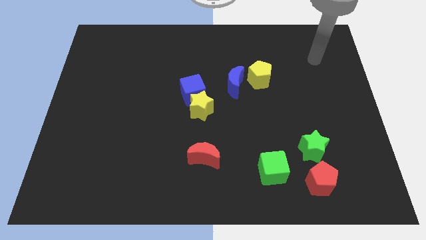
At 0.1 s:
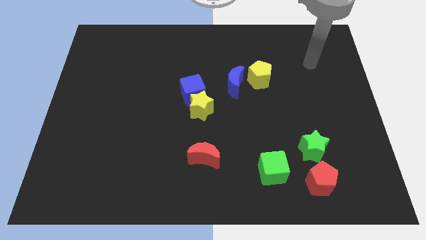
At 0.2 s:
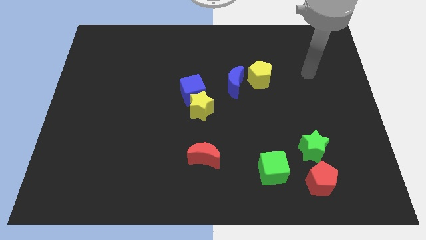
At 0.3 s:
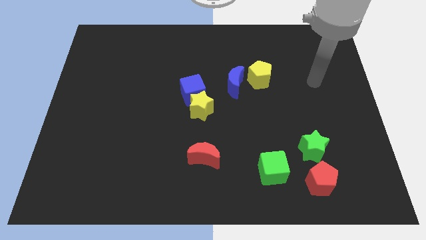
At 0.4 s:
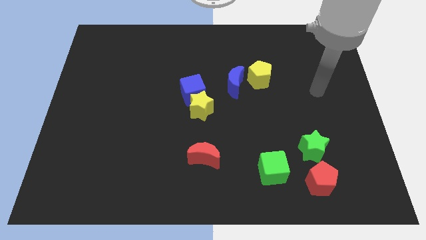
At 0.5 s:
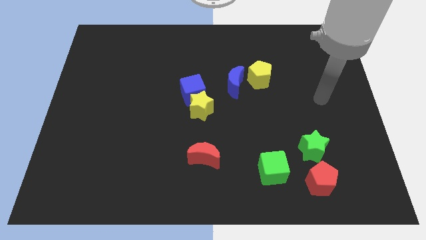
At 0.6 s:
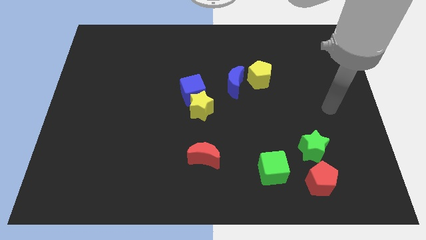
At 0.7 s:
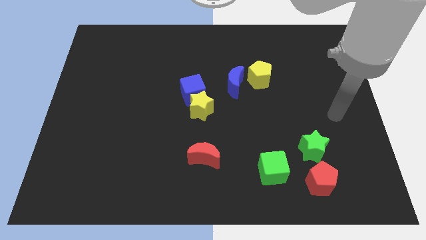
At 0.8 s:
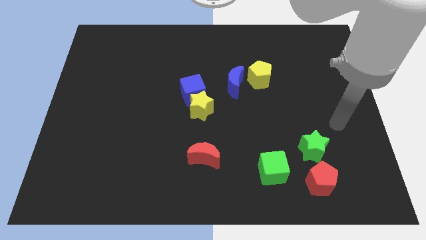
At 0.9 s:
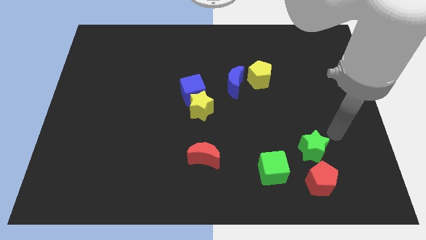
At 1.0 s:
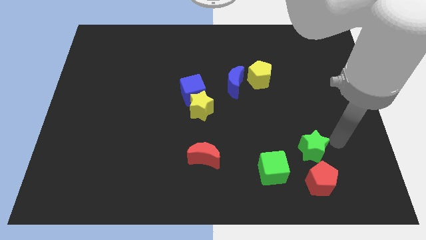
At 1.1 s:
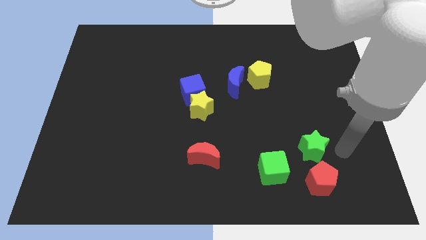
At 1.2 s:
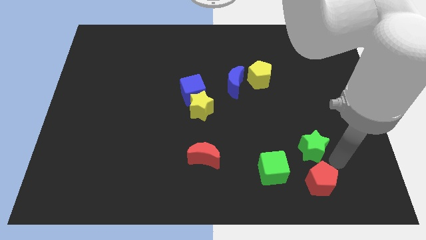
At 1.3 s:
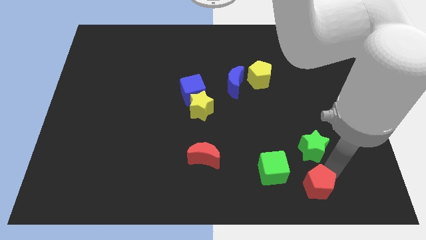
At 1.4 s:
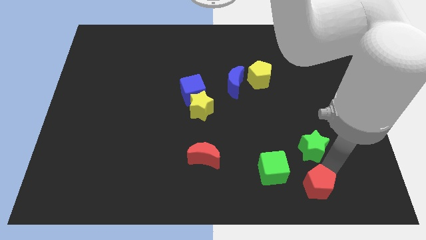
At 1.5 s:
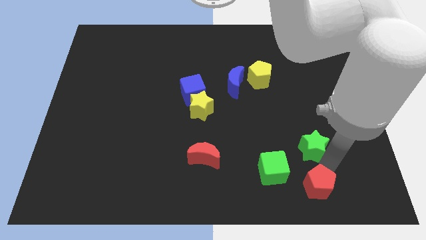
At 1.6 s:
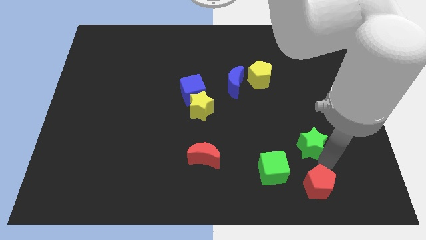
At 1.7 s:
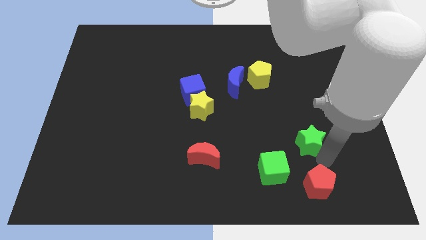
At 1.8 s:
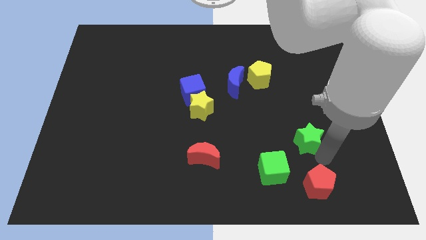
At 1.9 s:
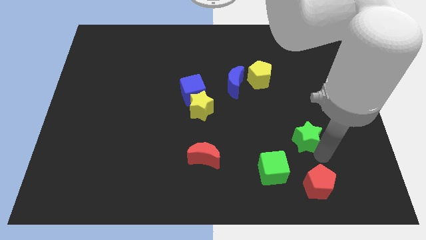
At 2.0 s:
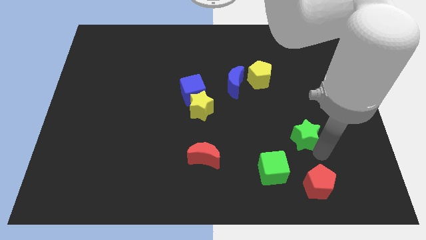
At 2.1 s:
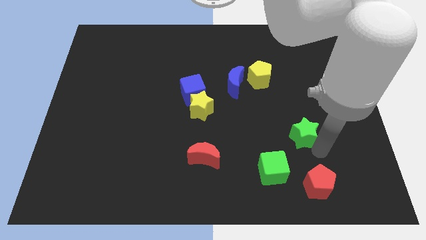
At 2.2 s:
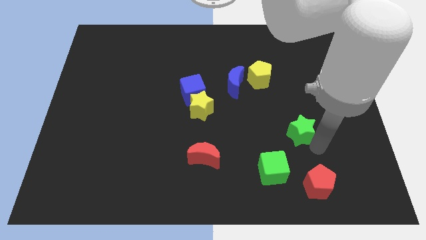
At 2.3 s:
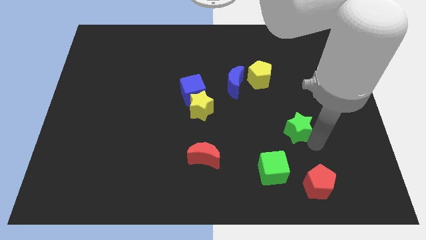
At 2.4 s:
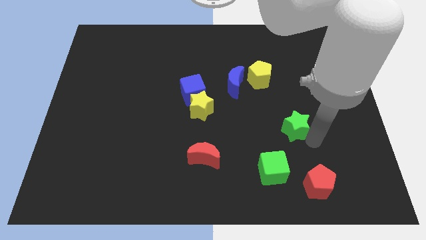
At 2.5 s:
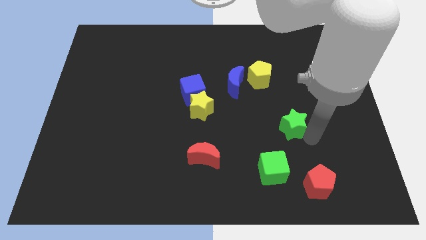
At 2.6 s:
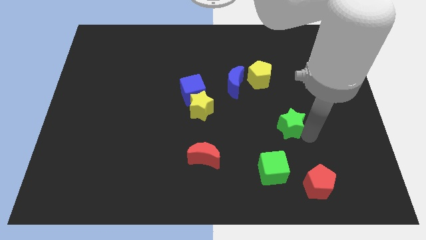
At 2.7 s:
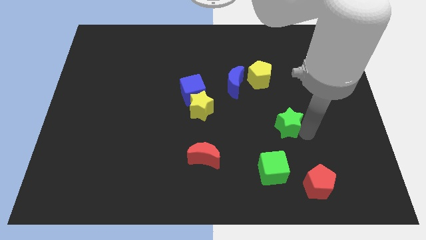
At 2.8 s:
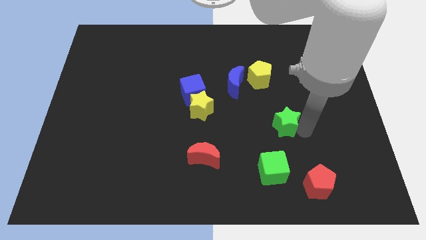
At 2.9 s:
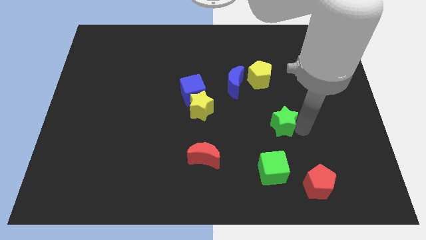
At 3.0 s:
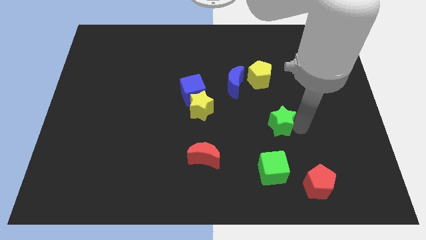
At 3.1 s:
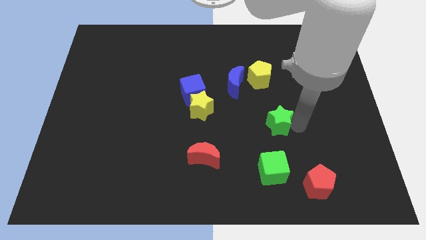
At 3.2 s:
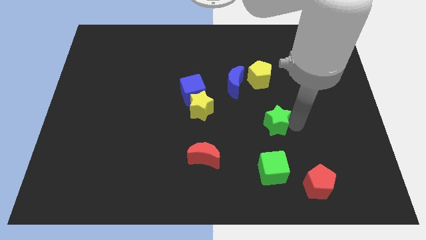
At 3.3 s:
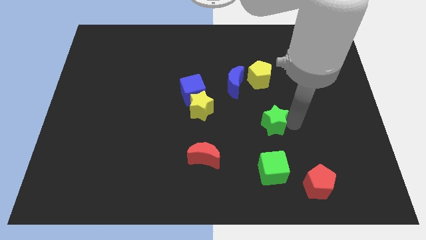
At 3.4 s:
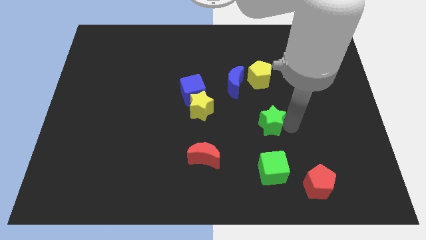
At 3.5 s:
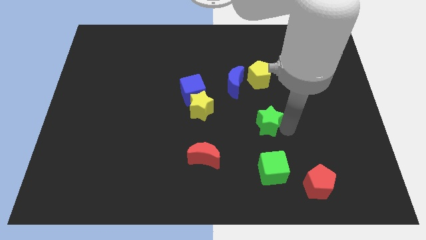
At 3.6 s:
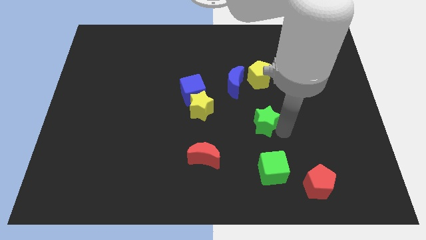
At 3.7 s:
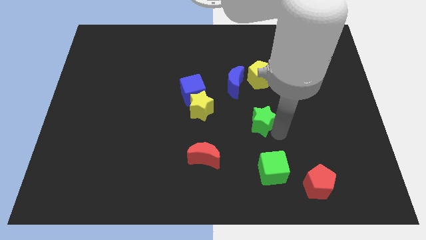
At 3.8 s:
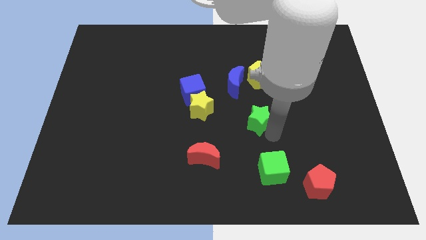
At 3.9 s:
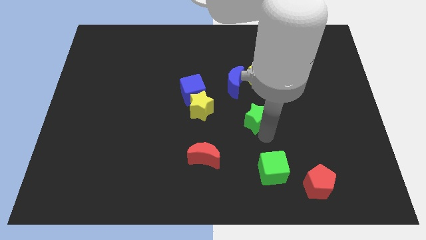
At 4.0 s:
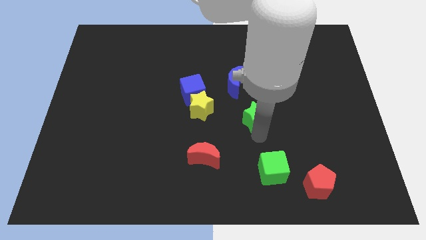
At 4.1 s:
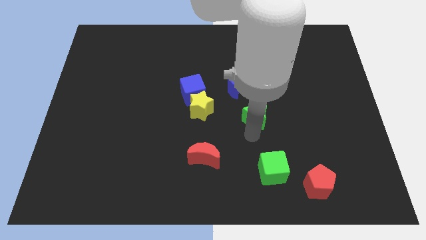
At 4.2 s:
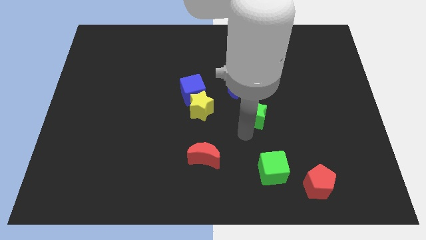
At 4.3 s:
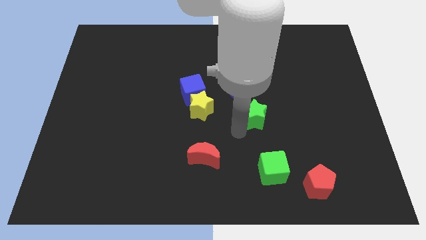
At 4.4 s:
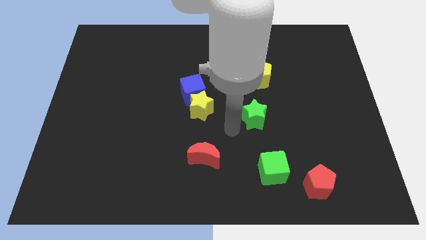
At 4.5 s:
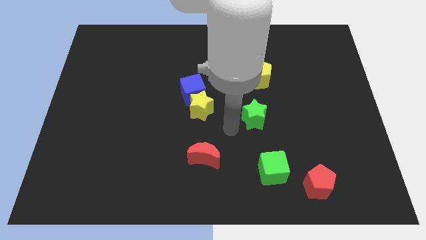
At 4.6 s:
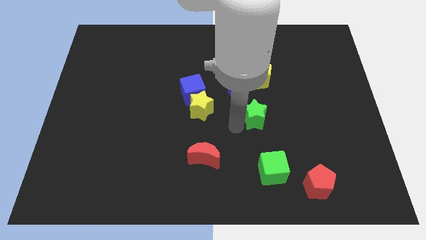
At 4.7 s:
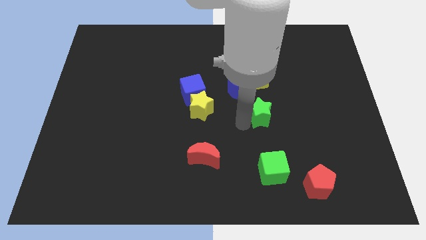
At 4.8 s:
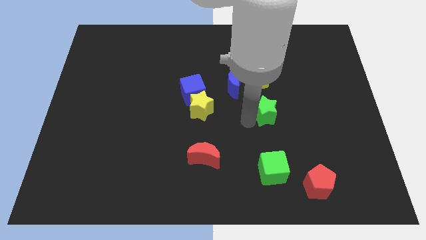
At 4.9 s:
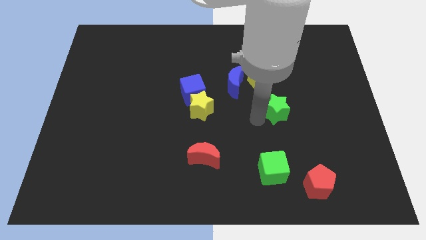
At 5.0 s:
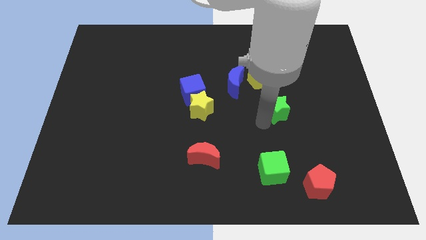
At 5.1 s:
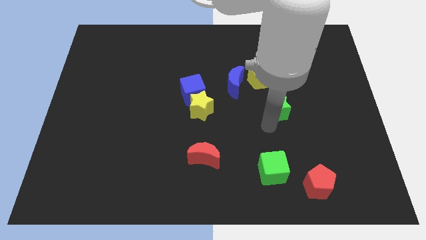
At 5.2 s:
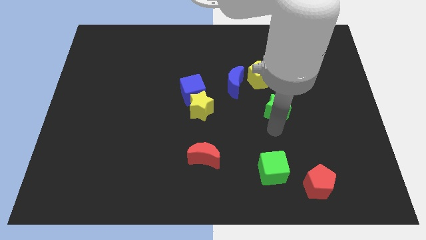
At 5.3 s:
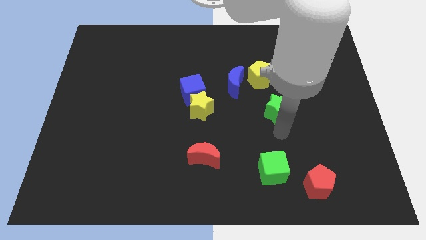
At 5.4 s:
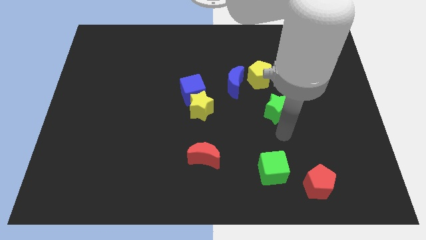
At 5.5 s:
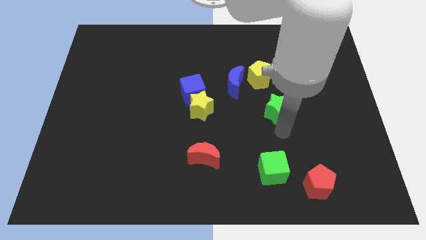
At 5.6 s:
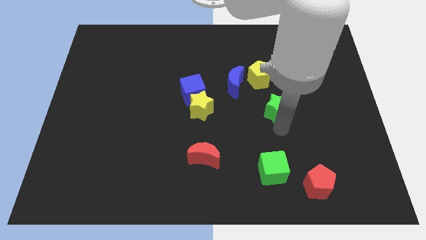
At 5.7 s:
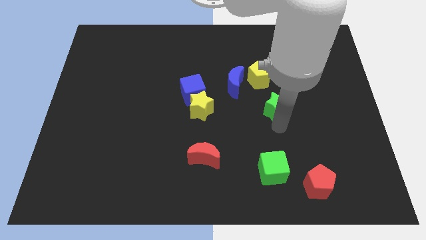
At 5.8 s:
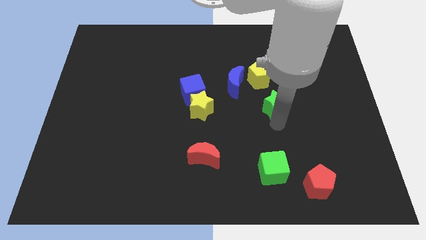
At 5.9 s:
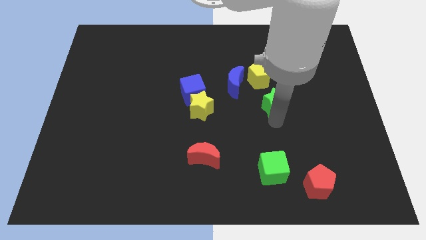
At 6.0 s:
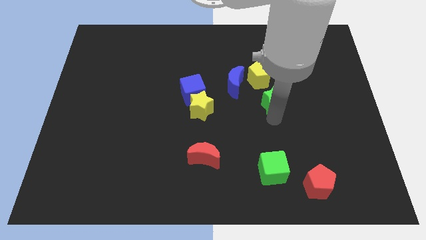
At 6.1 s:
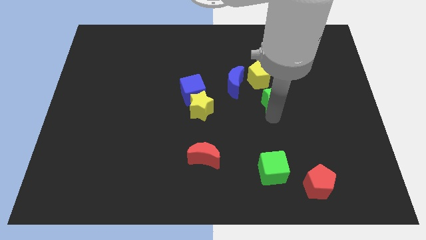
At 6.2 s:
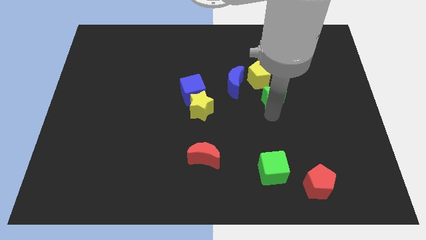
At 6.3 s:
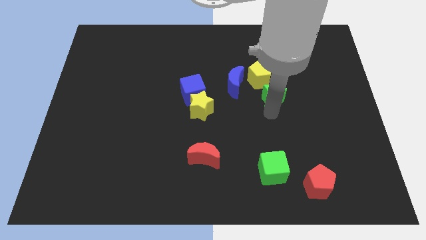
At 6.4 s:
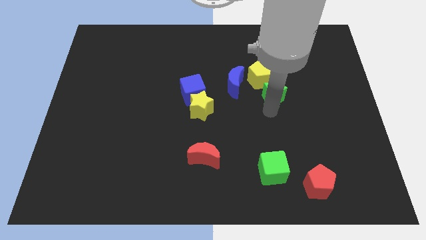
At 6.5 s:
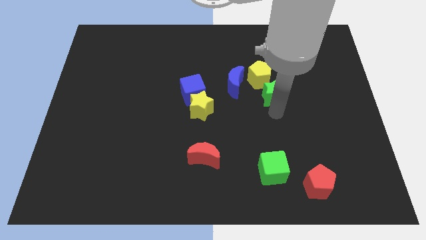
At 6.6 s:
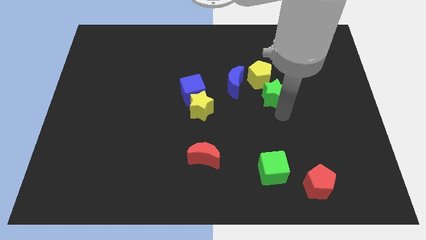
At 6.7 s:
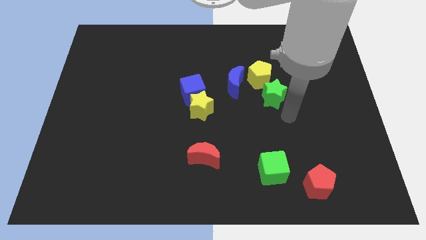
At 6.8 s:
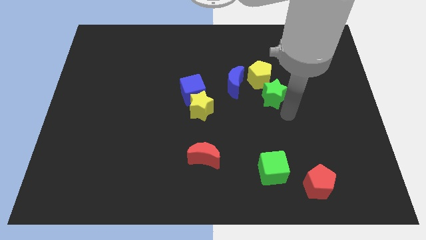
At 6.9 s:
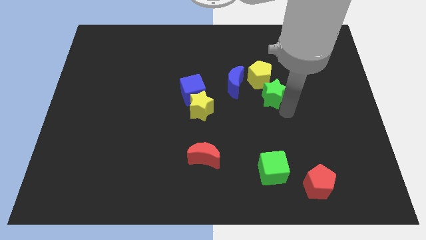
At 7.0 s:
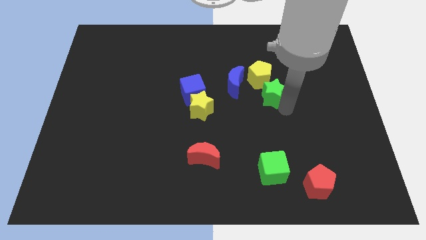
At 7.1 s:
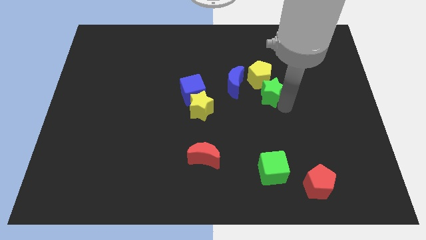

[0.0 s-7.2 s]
slide the green star close to the yellow pentagon
